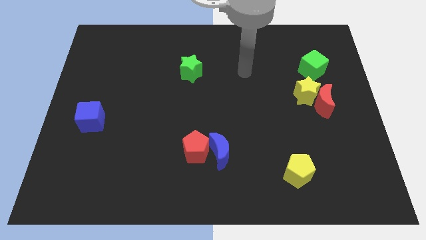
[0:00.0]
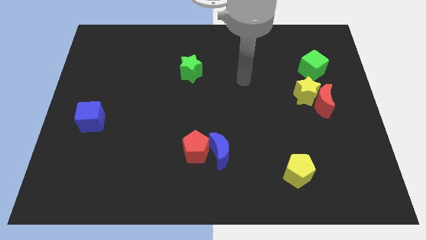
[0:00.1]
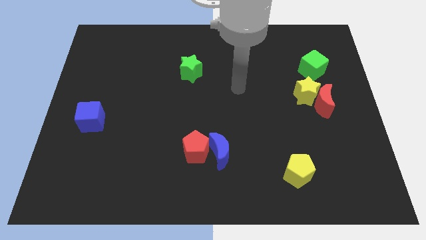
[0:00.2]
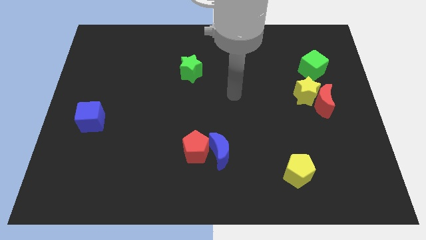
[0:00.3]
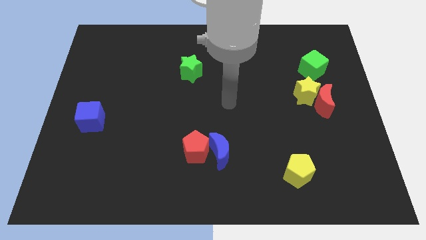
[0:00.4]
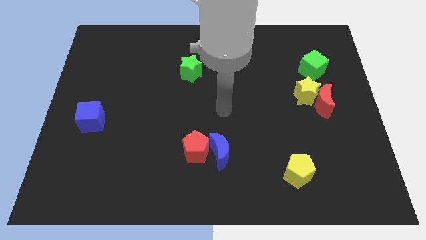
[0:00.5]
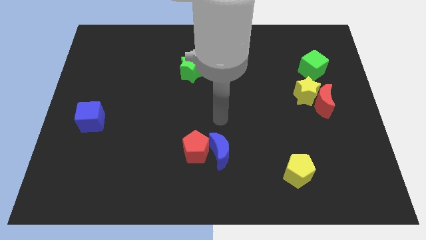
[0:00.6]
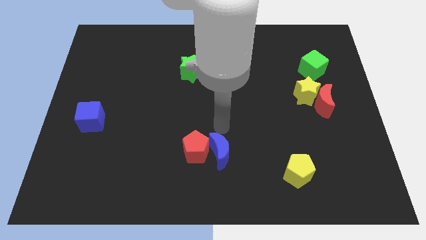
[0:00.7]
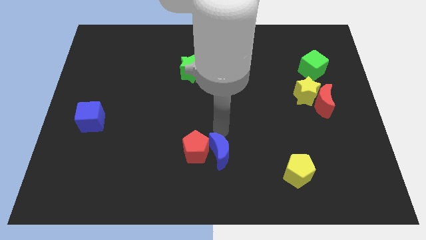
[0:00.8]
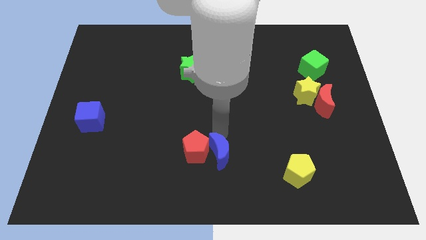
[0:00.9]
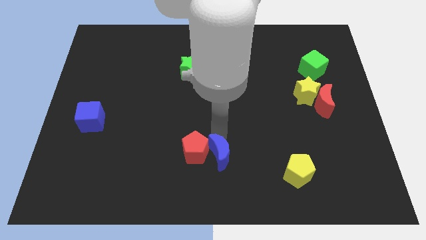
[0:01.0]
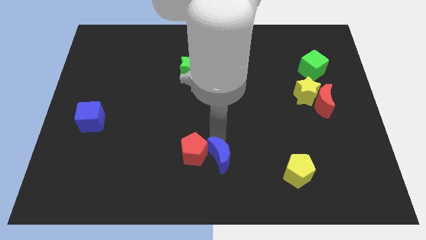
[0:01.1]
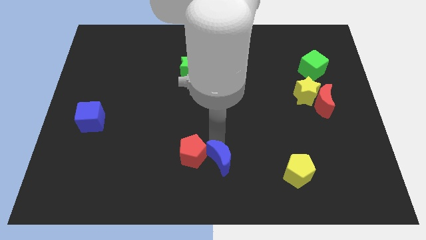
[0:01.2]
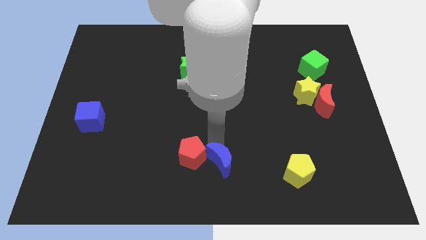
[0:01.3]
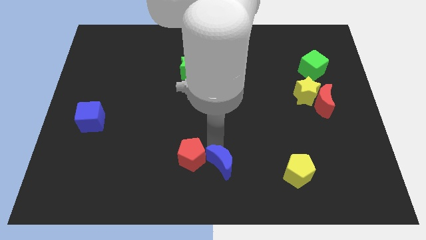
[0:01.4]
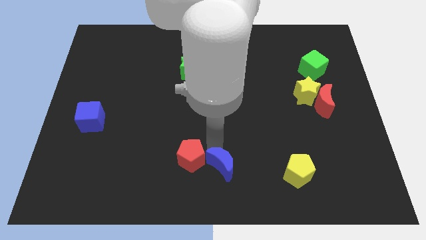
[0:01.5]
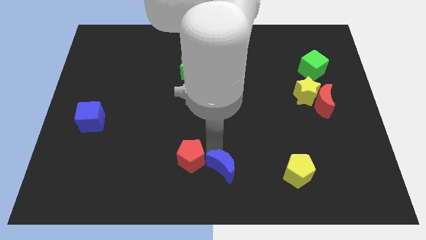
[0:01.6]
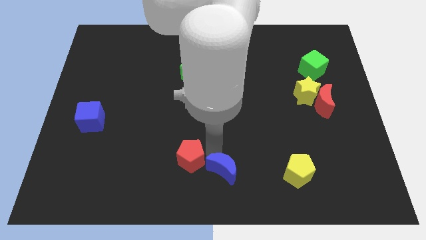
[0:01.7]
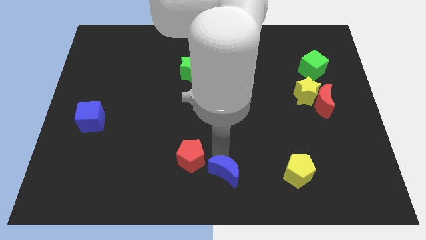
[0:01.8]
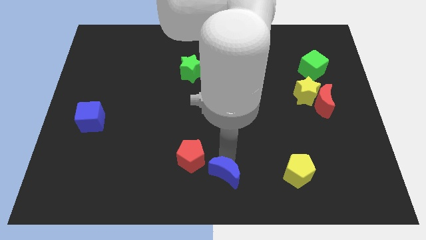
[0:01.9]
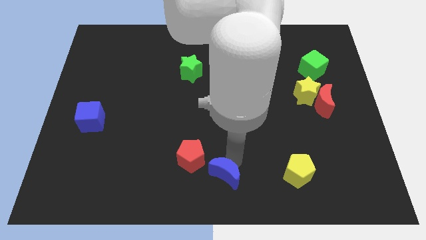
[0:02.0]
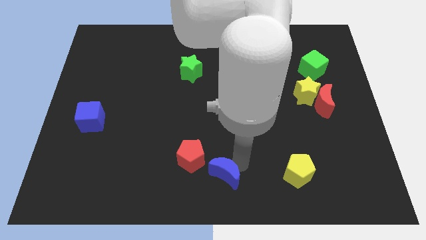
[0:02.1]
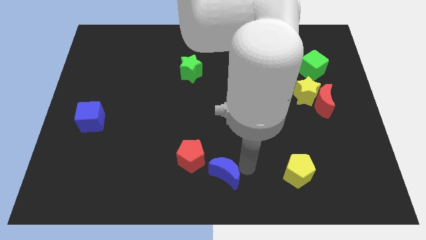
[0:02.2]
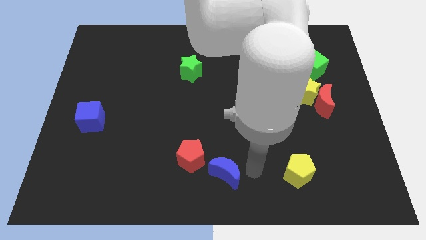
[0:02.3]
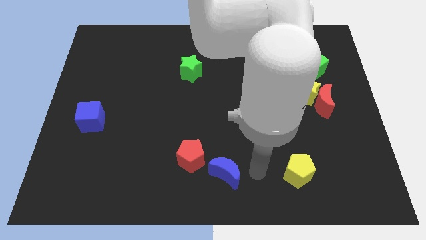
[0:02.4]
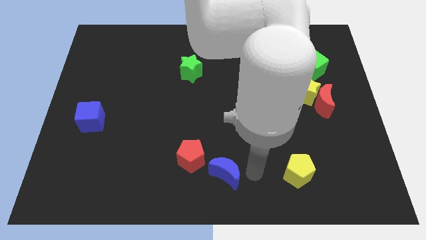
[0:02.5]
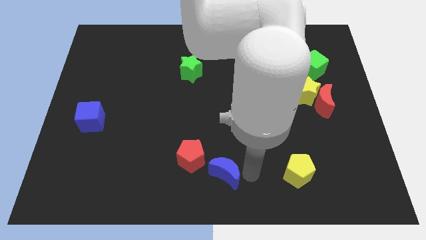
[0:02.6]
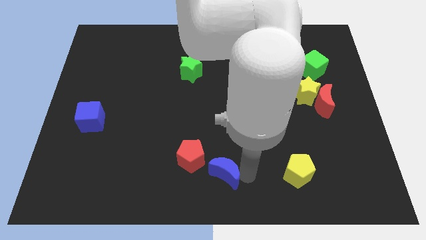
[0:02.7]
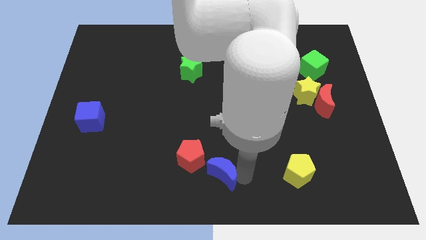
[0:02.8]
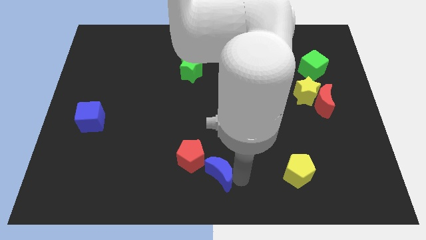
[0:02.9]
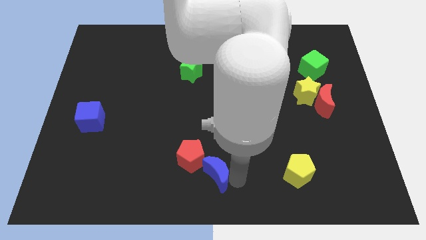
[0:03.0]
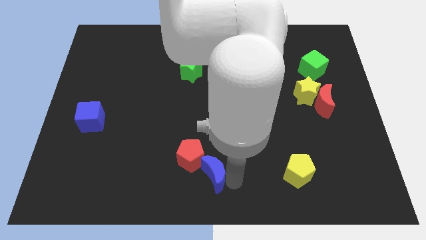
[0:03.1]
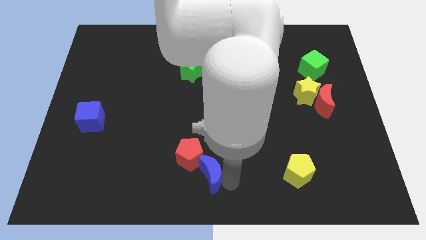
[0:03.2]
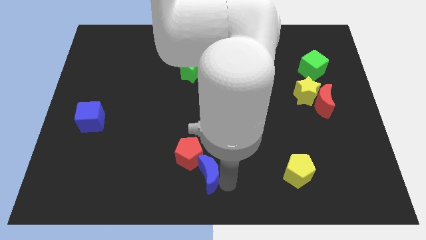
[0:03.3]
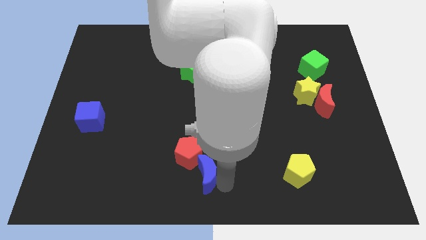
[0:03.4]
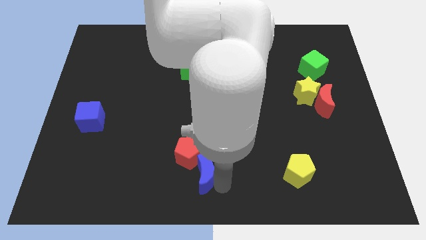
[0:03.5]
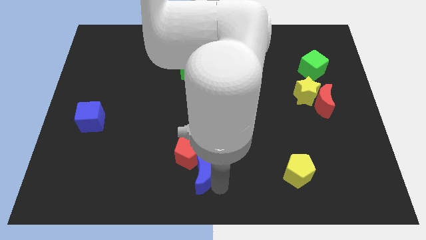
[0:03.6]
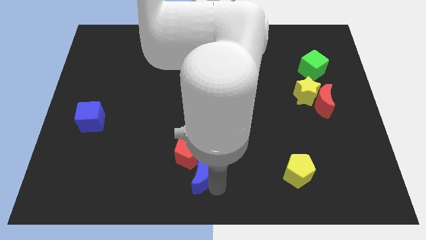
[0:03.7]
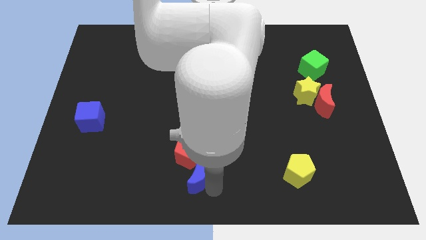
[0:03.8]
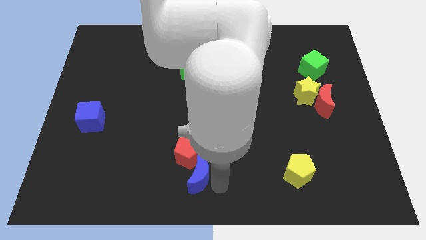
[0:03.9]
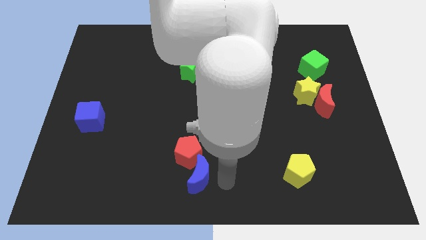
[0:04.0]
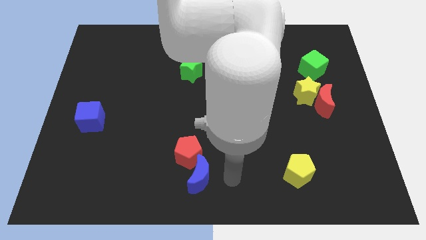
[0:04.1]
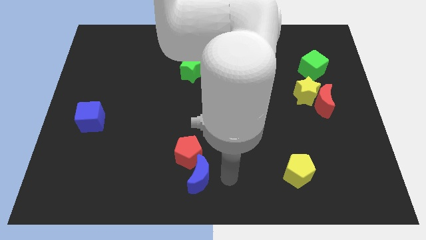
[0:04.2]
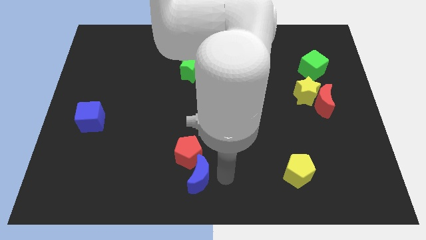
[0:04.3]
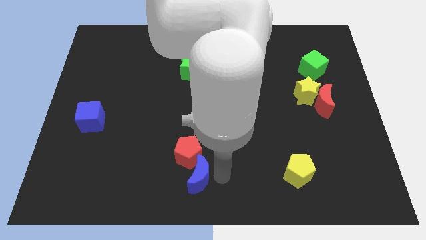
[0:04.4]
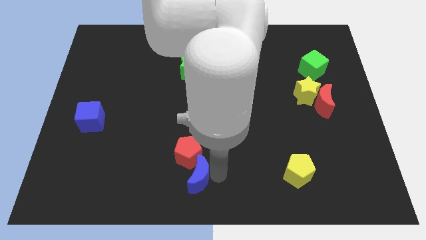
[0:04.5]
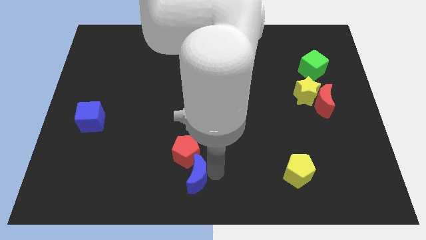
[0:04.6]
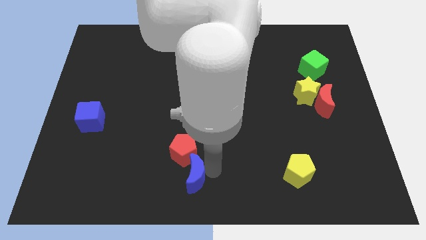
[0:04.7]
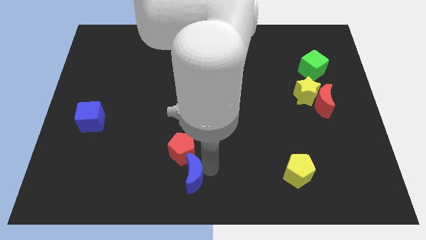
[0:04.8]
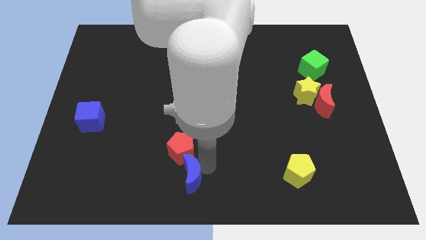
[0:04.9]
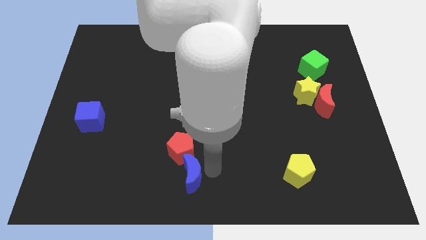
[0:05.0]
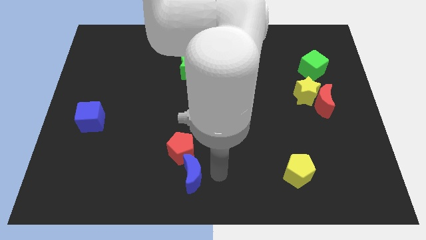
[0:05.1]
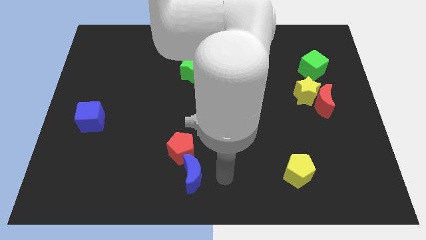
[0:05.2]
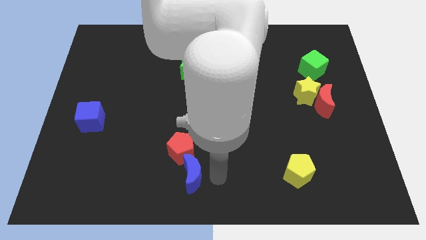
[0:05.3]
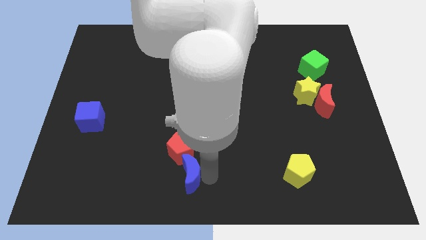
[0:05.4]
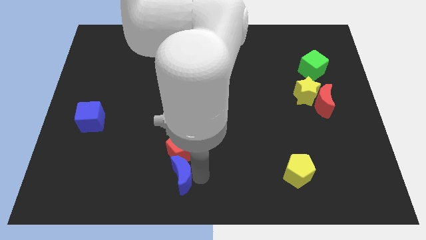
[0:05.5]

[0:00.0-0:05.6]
put the blue moon to the bottom left of the red pentagon
